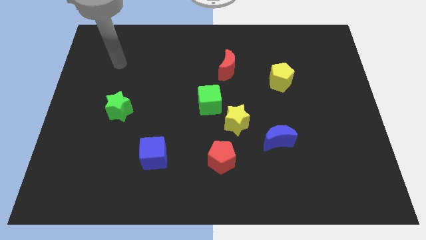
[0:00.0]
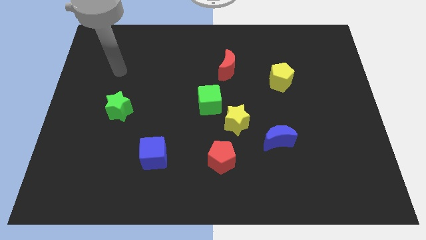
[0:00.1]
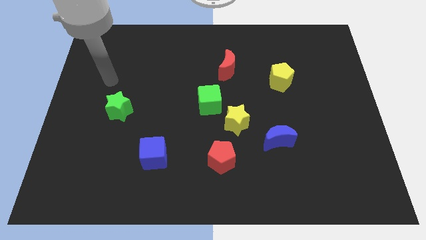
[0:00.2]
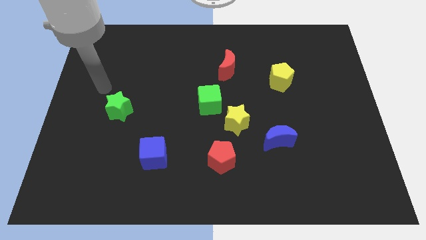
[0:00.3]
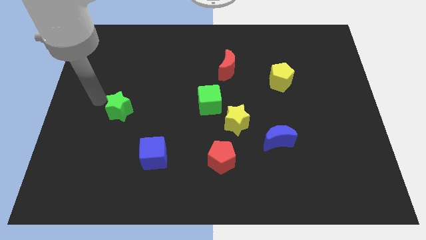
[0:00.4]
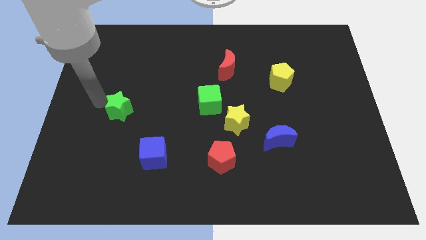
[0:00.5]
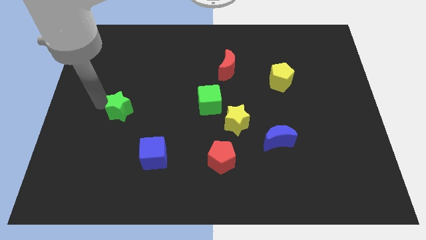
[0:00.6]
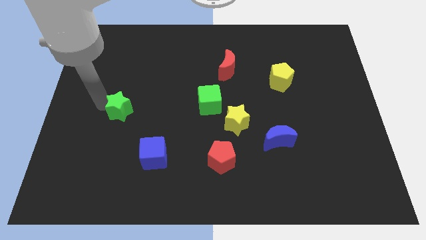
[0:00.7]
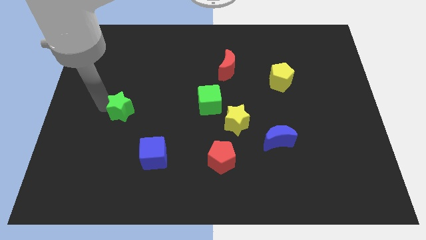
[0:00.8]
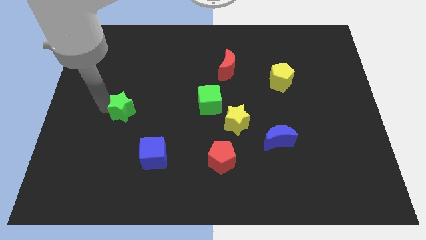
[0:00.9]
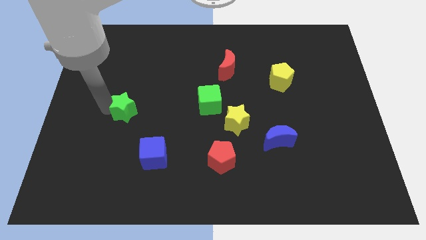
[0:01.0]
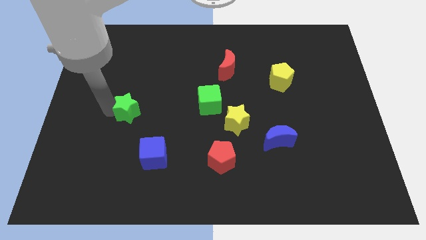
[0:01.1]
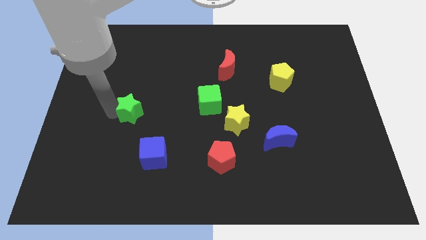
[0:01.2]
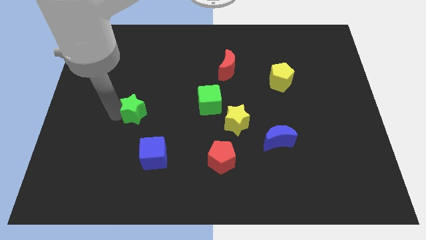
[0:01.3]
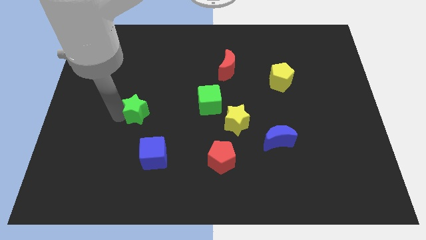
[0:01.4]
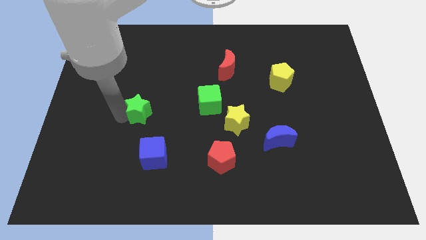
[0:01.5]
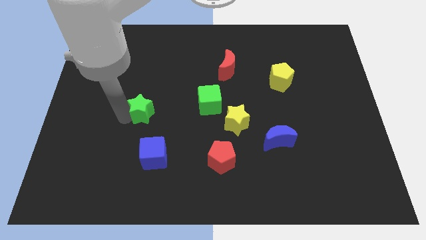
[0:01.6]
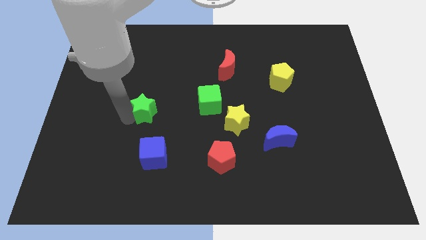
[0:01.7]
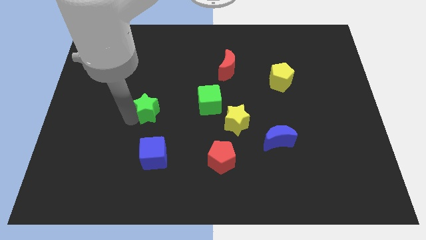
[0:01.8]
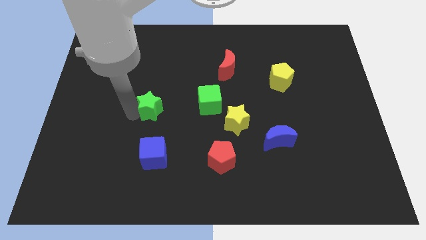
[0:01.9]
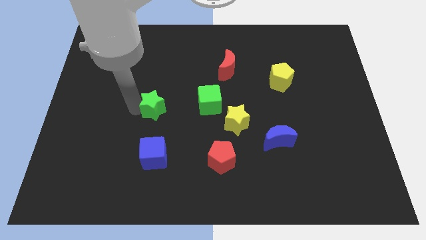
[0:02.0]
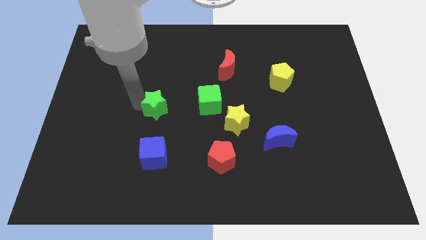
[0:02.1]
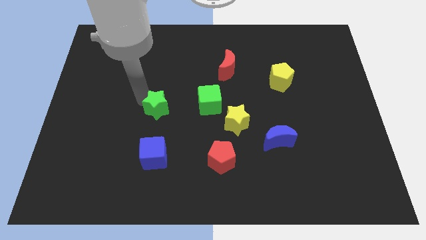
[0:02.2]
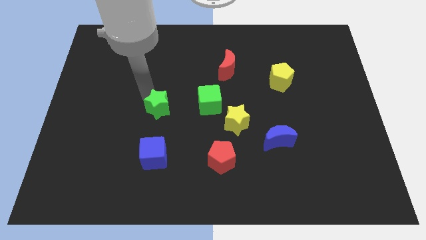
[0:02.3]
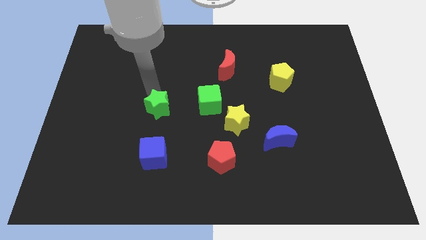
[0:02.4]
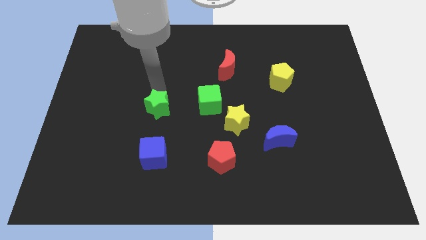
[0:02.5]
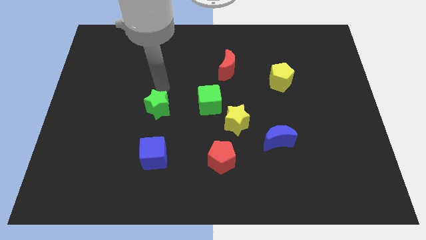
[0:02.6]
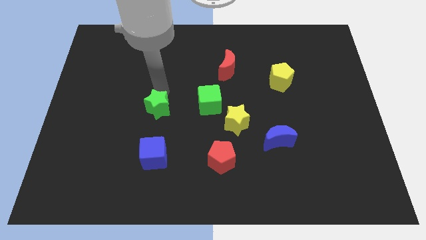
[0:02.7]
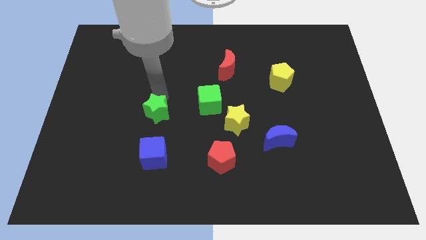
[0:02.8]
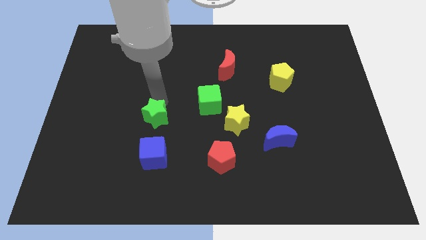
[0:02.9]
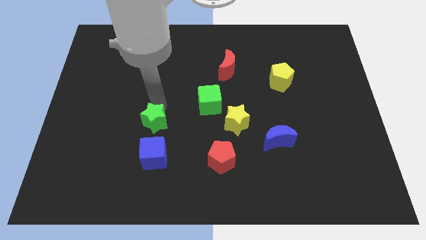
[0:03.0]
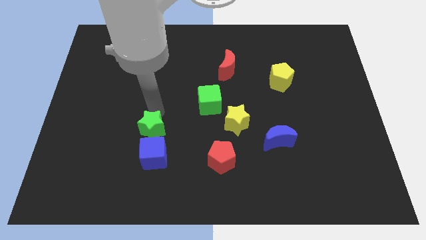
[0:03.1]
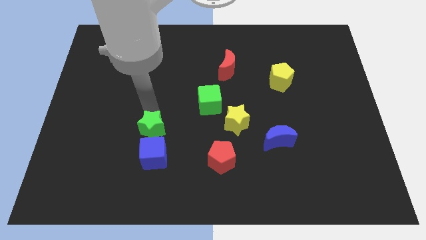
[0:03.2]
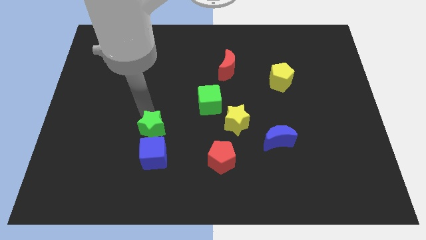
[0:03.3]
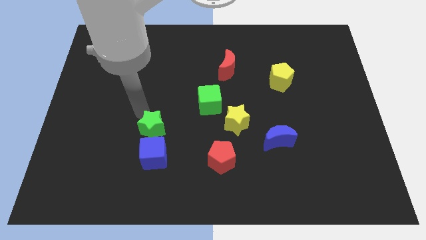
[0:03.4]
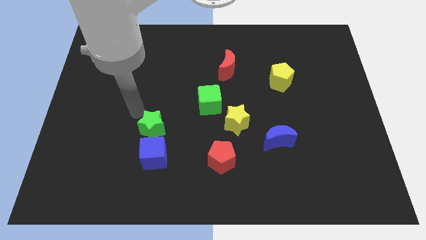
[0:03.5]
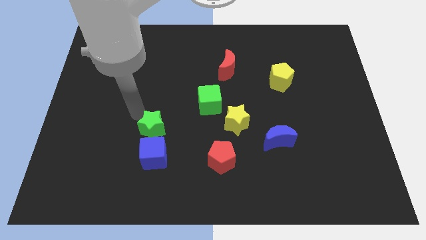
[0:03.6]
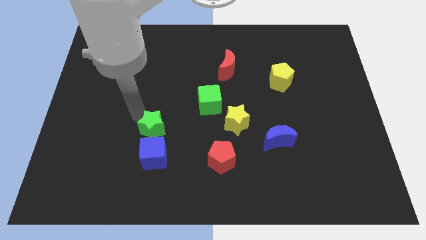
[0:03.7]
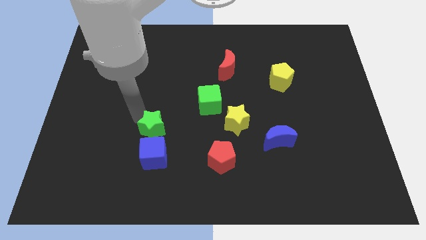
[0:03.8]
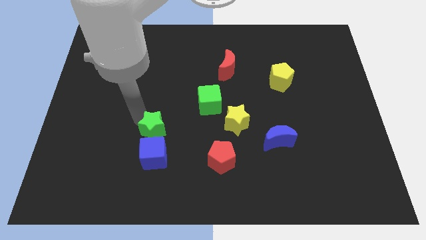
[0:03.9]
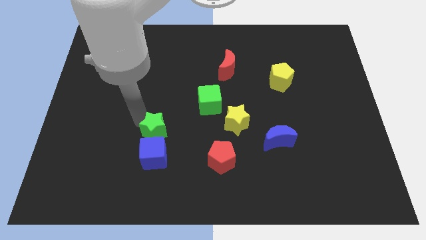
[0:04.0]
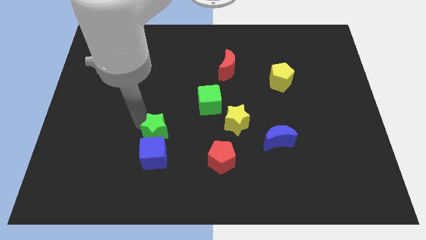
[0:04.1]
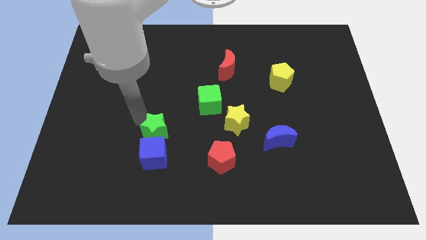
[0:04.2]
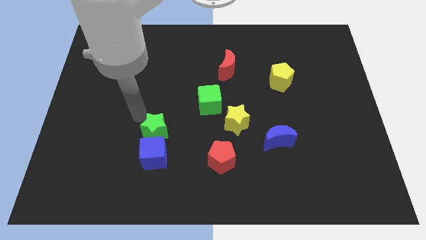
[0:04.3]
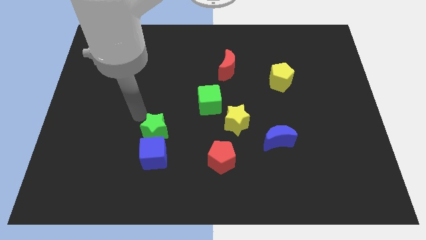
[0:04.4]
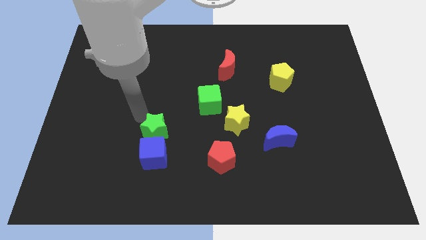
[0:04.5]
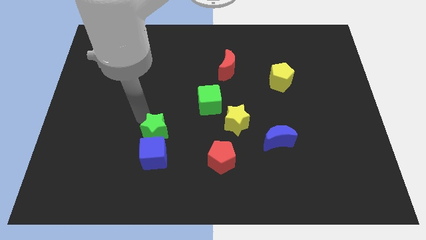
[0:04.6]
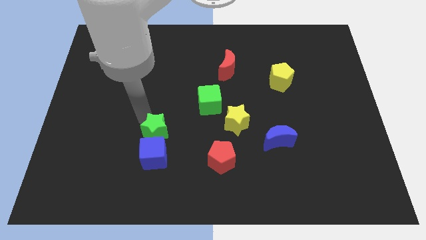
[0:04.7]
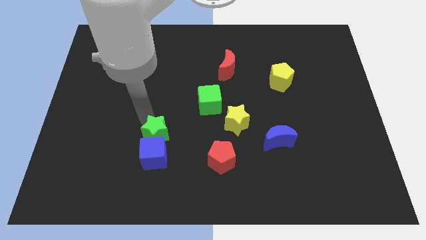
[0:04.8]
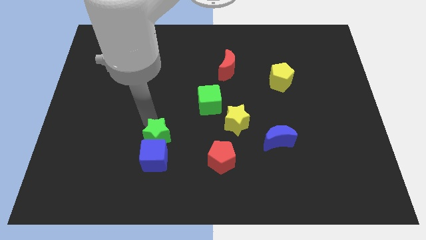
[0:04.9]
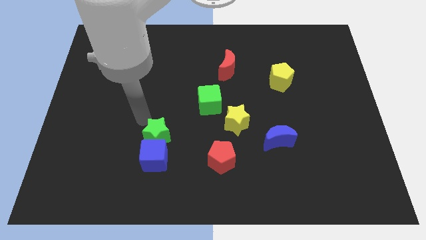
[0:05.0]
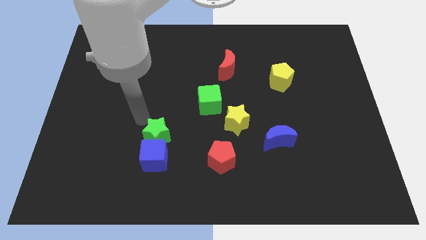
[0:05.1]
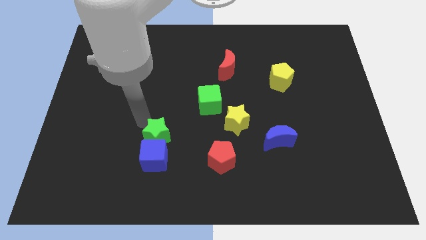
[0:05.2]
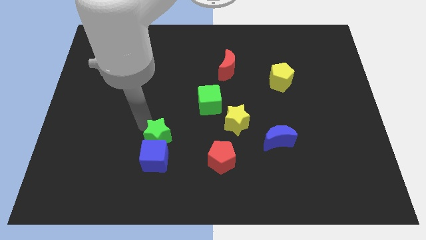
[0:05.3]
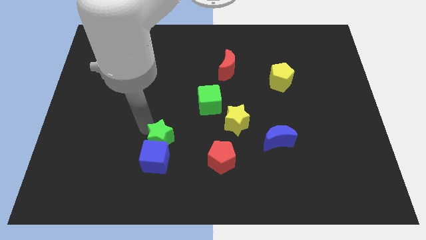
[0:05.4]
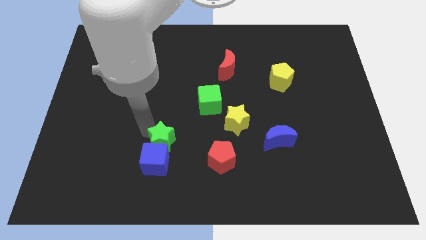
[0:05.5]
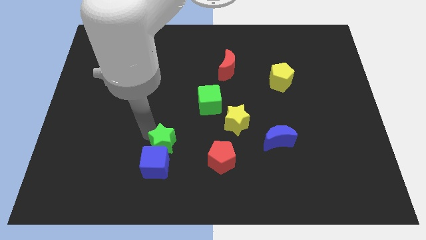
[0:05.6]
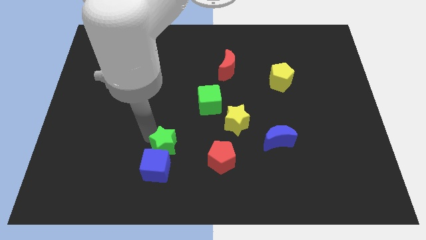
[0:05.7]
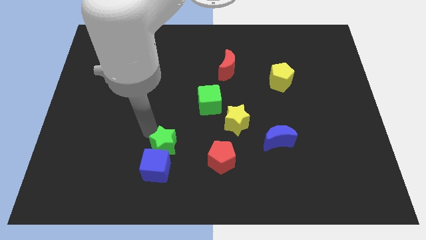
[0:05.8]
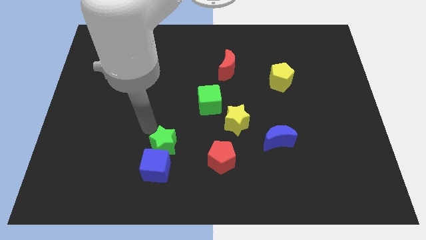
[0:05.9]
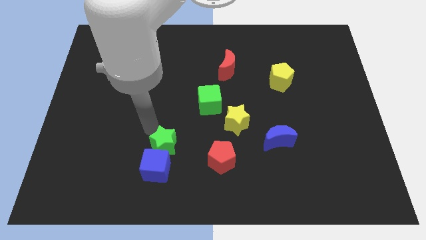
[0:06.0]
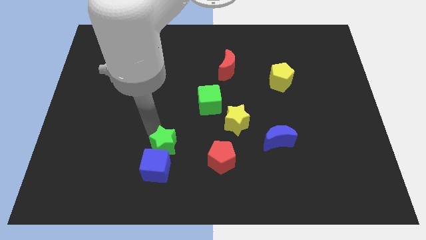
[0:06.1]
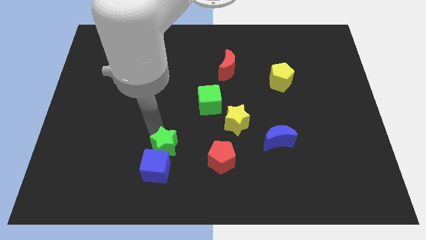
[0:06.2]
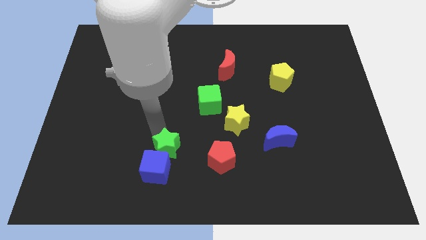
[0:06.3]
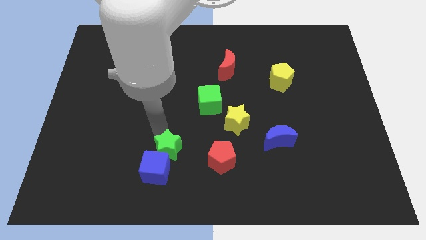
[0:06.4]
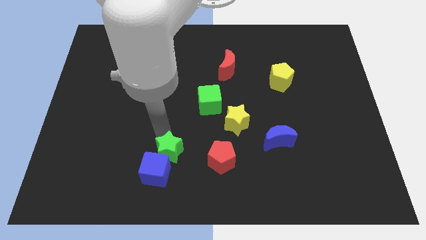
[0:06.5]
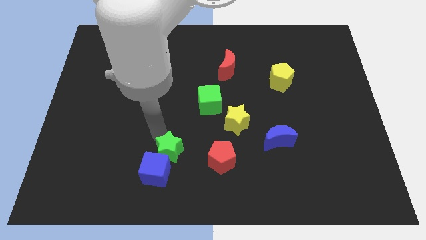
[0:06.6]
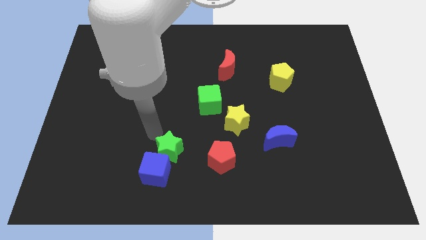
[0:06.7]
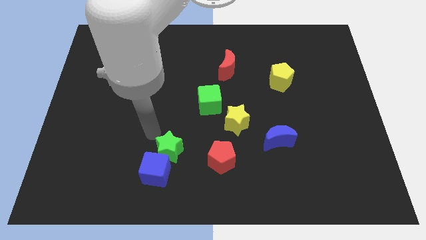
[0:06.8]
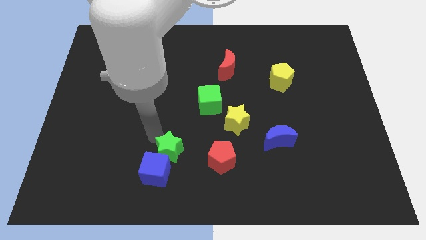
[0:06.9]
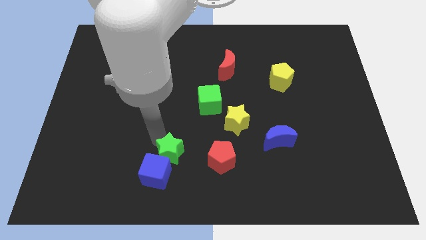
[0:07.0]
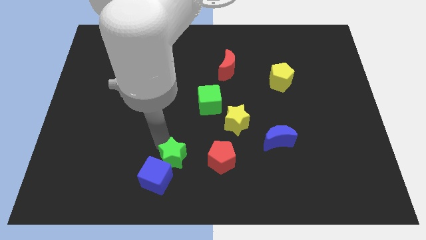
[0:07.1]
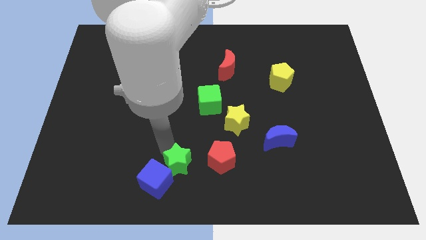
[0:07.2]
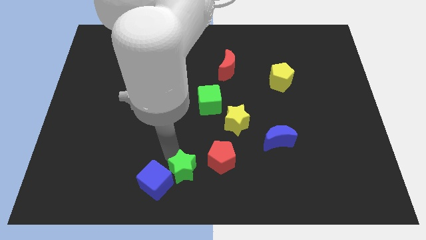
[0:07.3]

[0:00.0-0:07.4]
slide the green star to the bottom left side of the red pentagon
